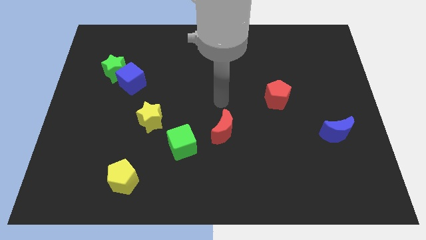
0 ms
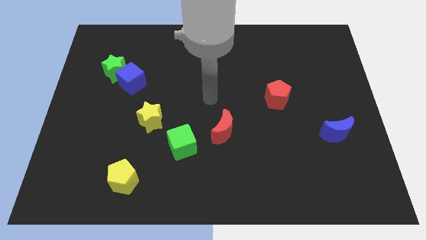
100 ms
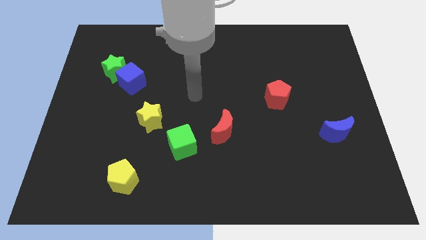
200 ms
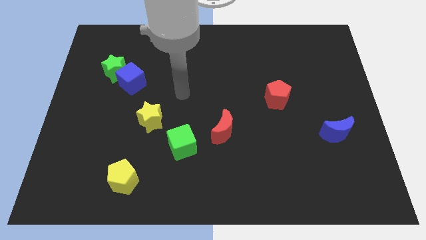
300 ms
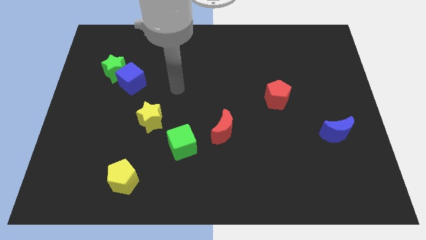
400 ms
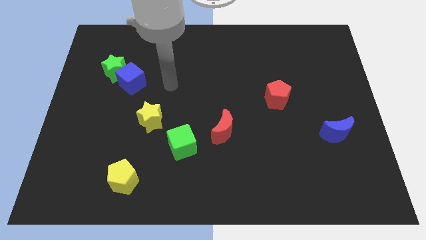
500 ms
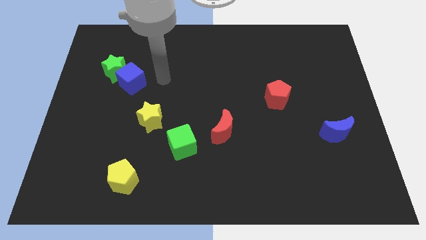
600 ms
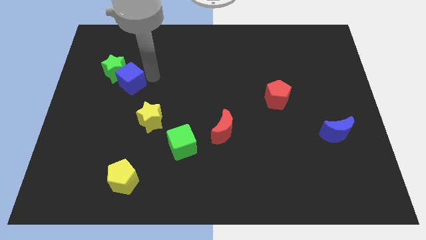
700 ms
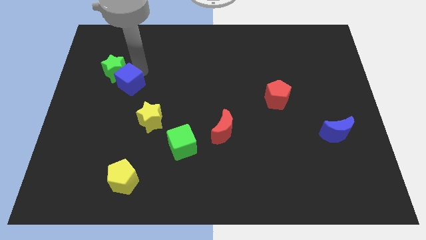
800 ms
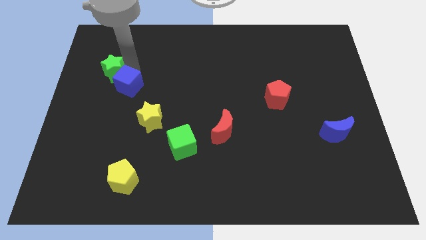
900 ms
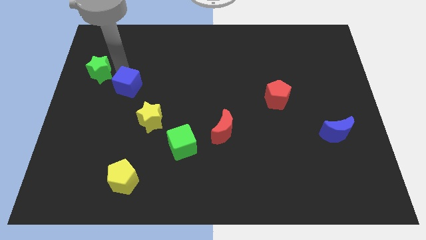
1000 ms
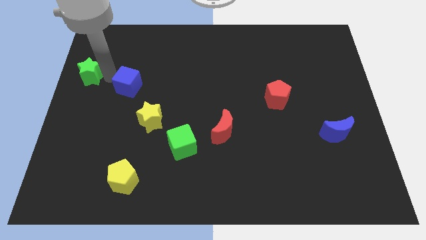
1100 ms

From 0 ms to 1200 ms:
separate the blue cube from the green star

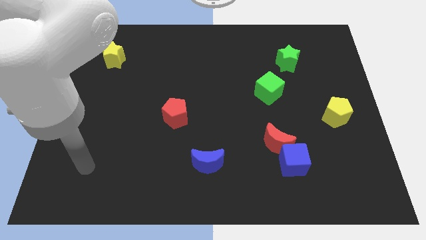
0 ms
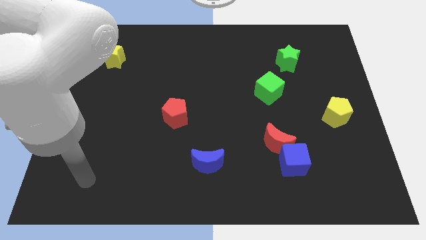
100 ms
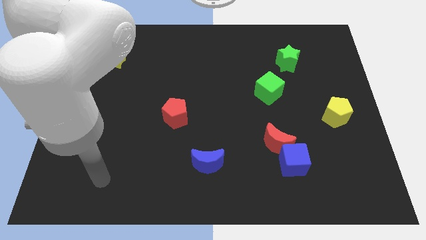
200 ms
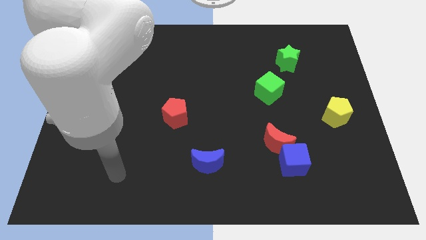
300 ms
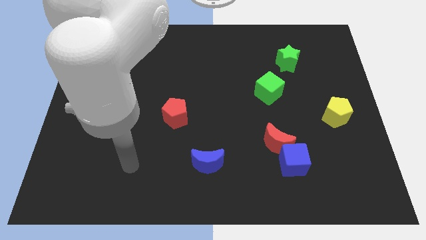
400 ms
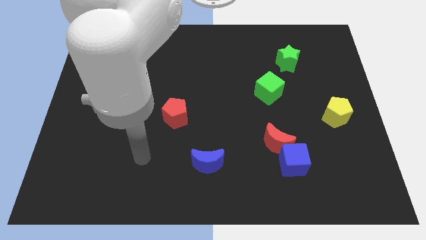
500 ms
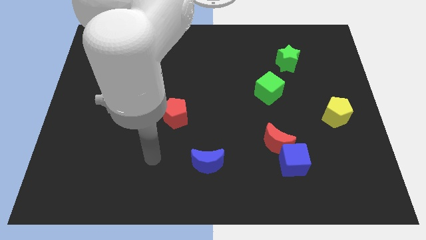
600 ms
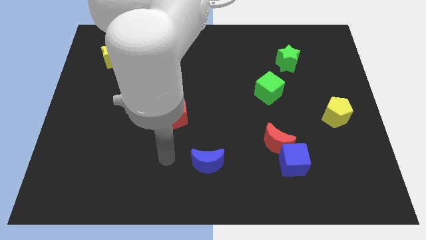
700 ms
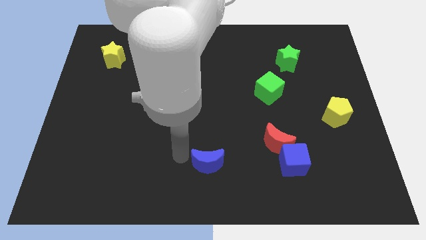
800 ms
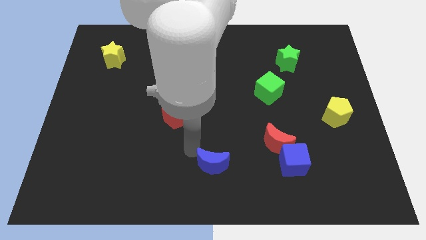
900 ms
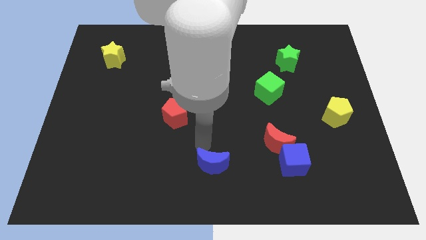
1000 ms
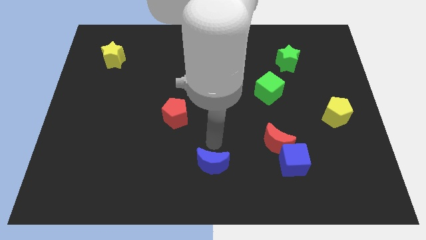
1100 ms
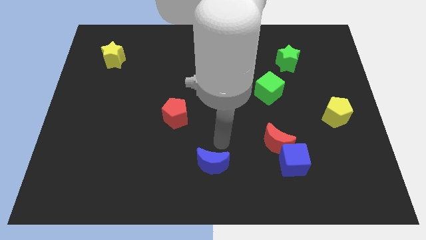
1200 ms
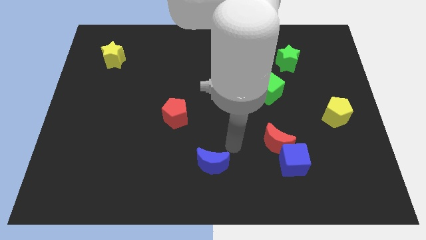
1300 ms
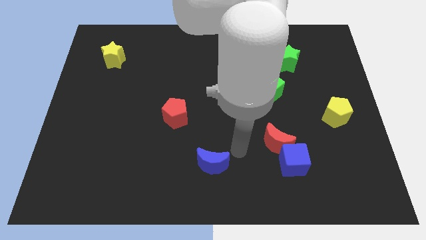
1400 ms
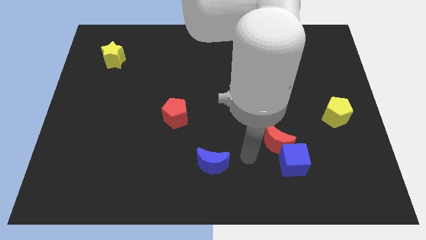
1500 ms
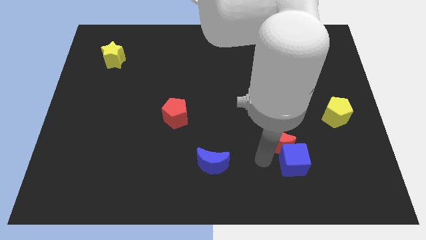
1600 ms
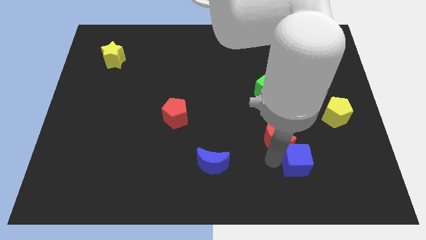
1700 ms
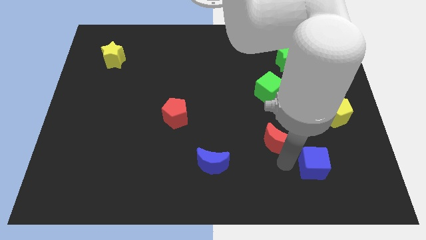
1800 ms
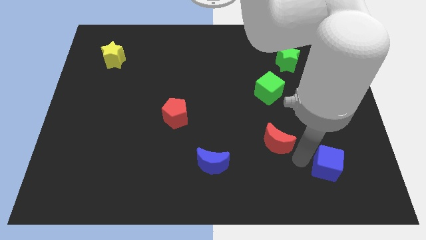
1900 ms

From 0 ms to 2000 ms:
separate the red moon from the blue cube

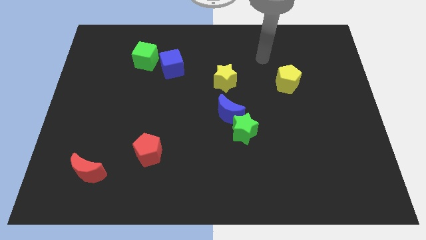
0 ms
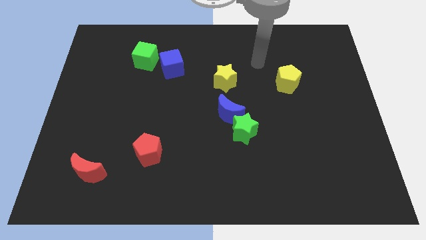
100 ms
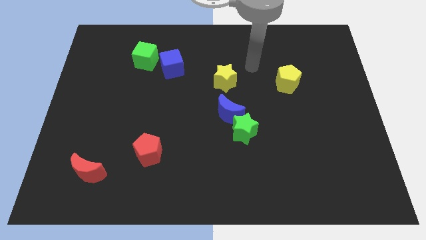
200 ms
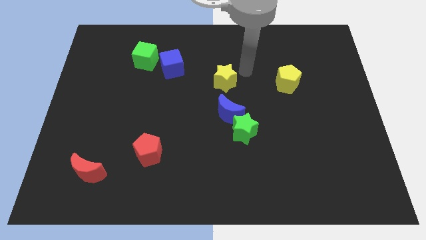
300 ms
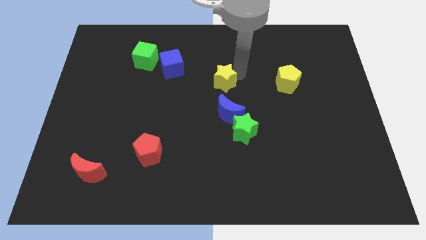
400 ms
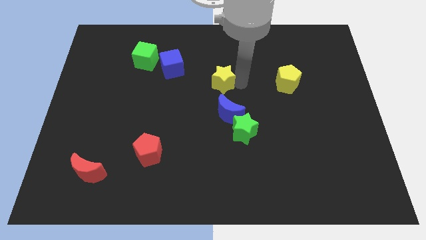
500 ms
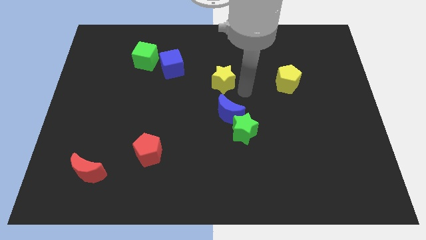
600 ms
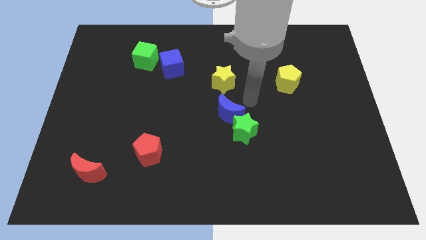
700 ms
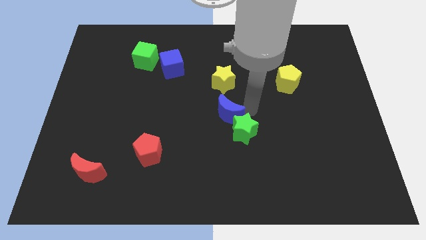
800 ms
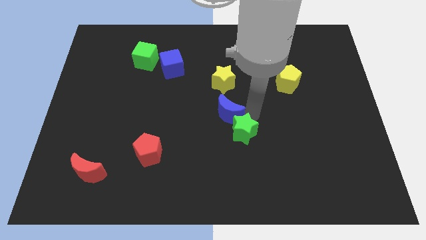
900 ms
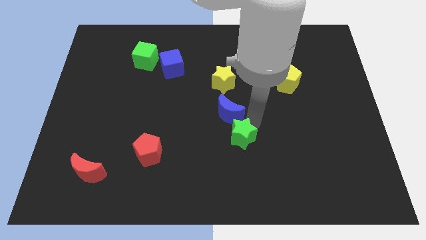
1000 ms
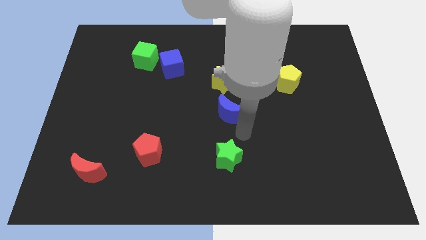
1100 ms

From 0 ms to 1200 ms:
separate the blue moon from the green star

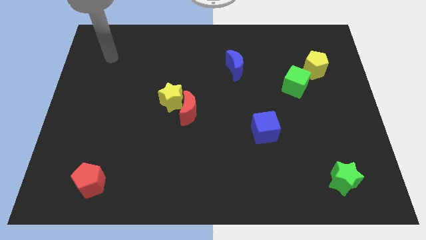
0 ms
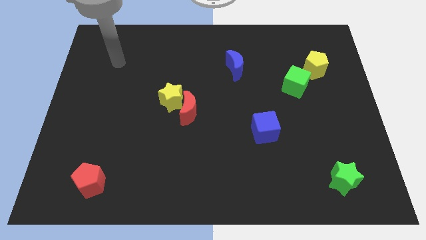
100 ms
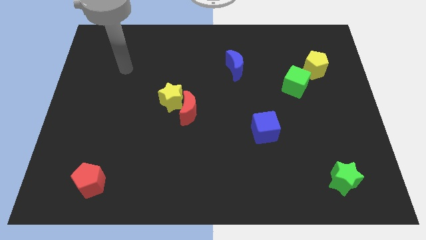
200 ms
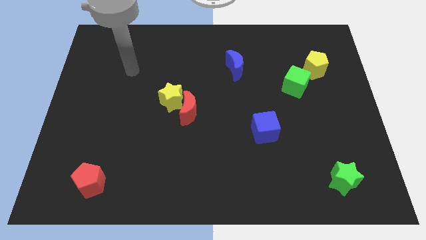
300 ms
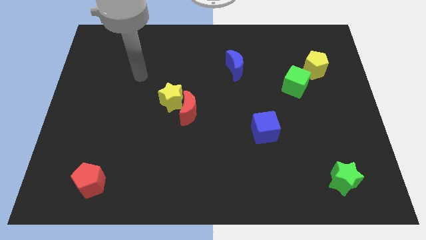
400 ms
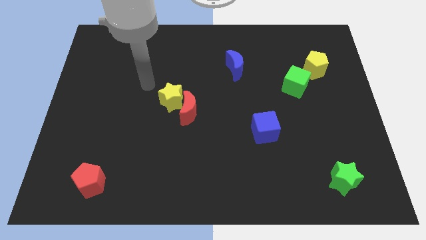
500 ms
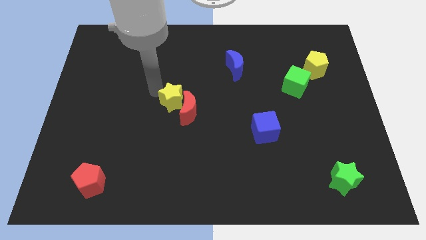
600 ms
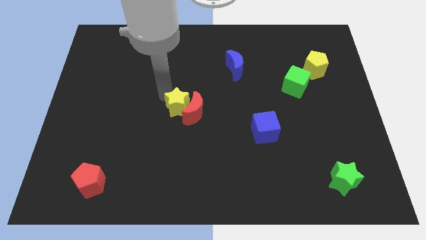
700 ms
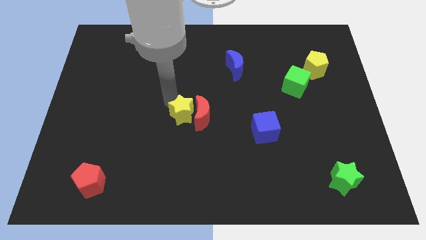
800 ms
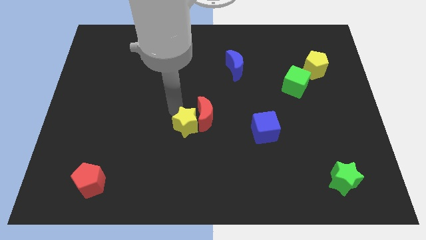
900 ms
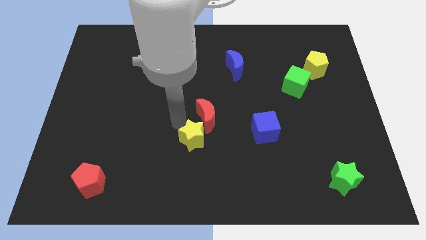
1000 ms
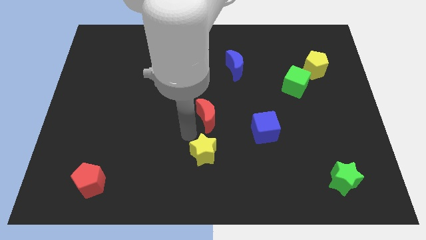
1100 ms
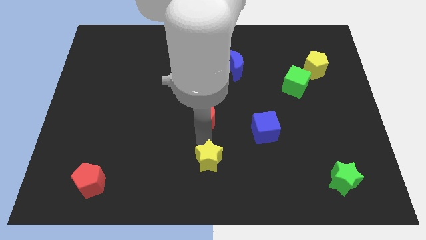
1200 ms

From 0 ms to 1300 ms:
separate the red moon from the yellow star

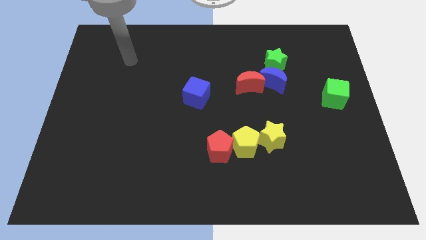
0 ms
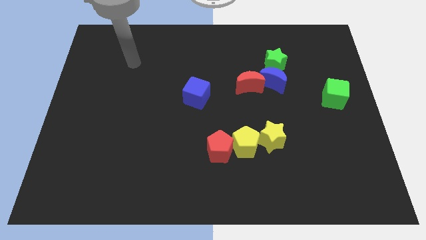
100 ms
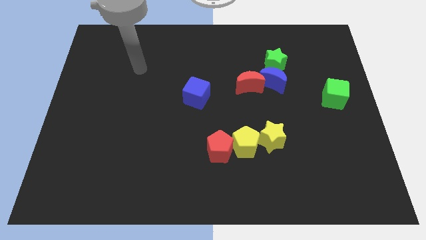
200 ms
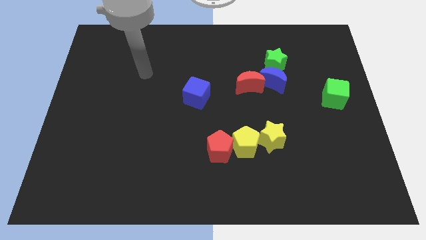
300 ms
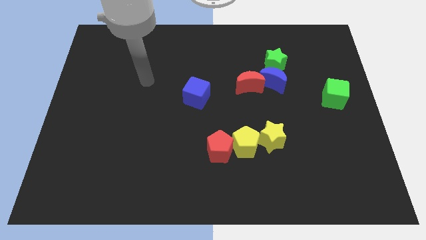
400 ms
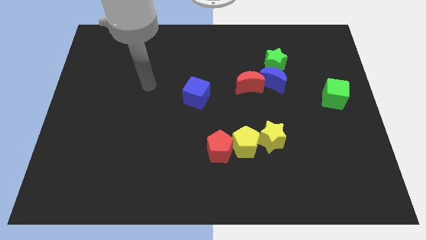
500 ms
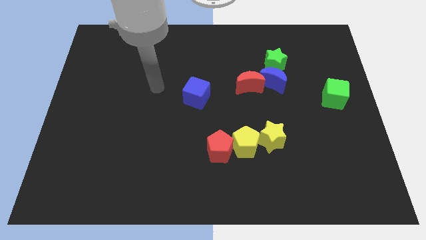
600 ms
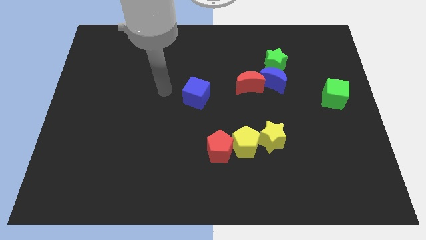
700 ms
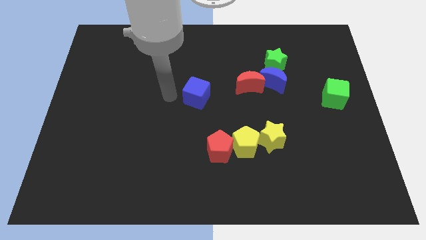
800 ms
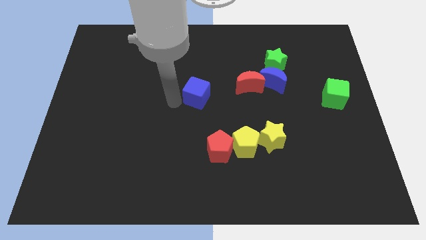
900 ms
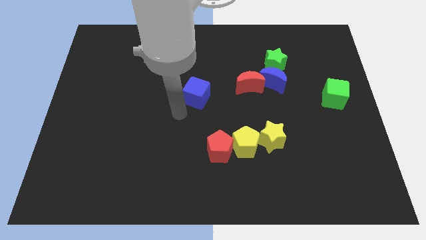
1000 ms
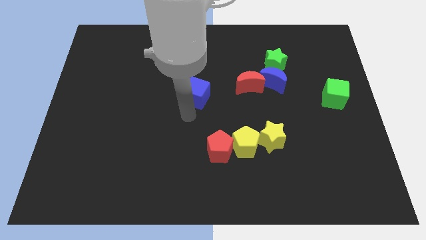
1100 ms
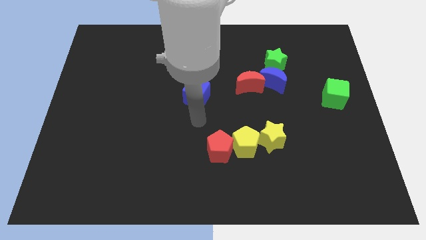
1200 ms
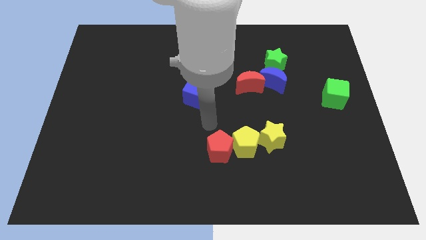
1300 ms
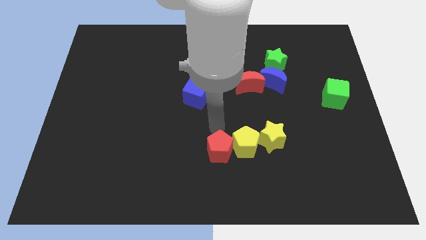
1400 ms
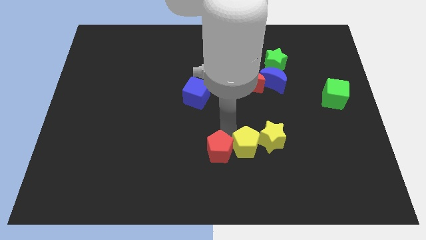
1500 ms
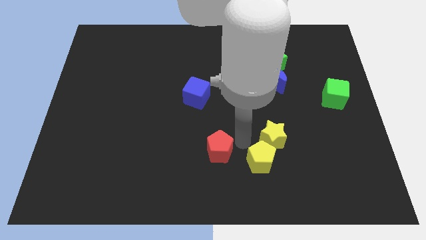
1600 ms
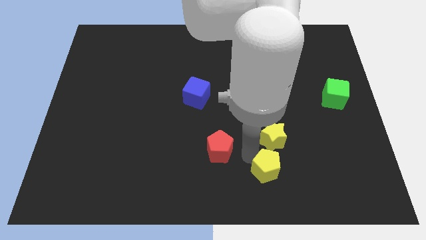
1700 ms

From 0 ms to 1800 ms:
pull the red pentagon apart from the yellow pentagon

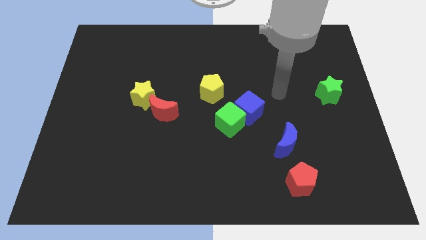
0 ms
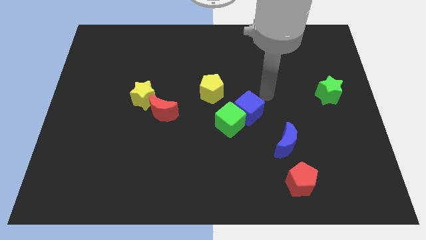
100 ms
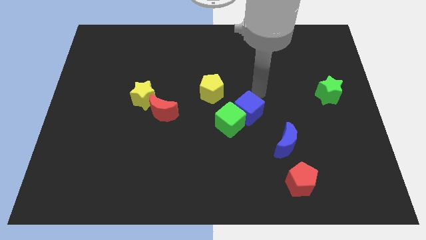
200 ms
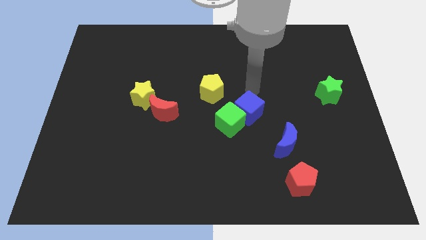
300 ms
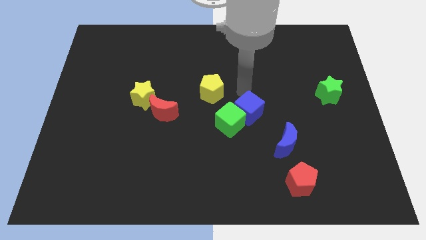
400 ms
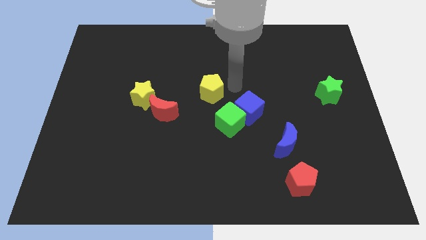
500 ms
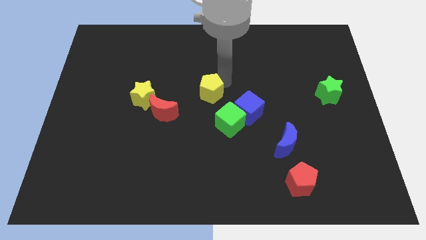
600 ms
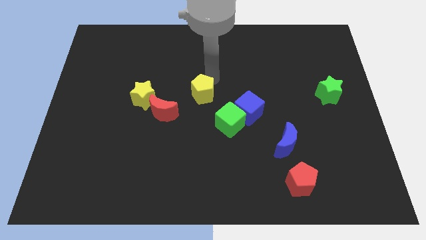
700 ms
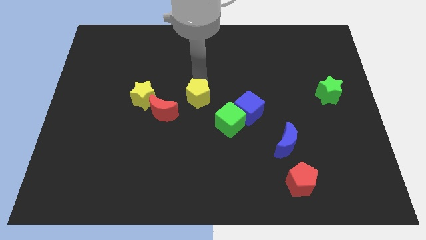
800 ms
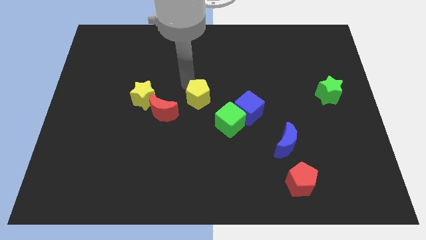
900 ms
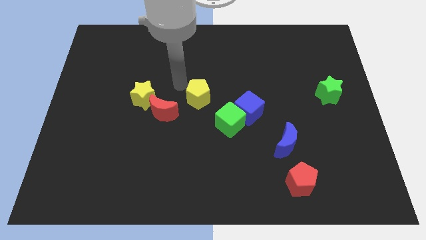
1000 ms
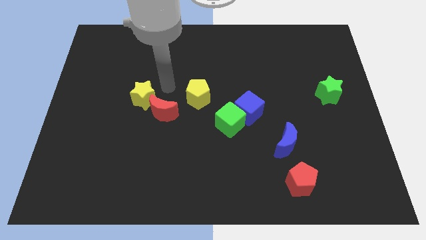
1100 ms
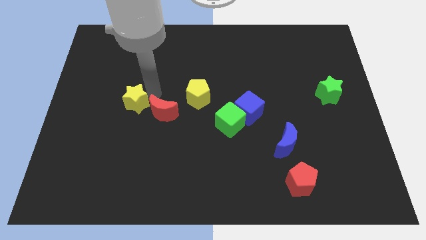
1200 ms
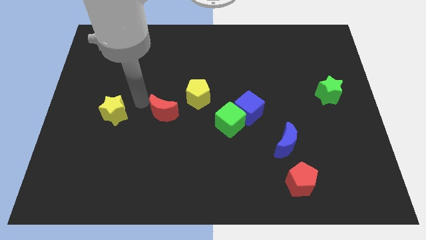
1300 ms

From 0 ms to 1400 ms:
move the red moon away from the yellow star

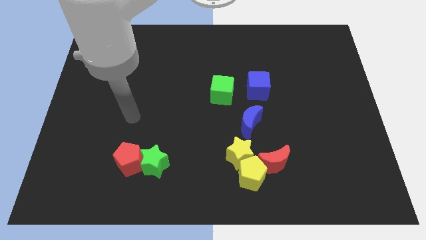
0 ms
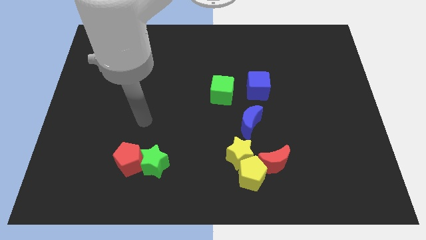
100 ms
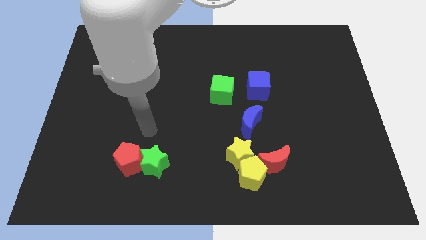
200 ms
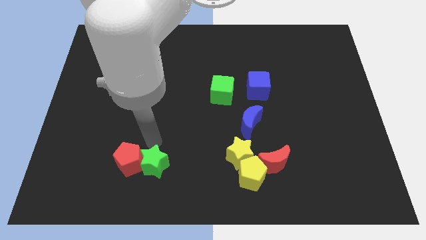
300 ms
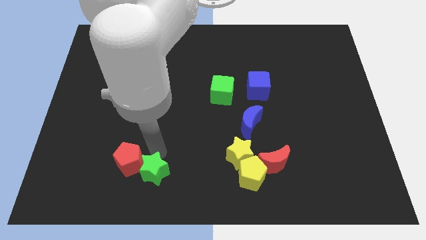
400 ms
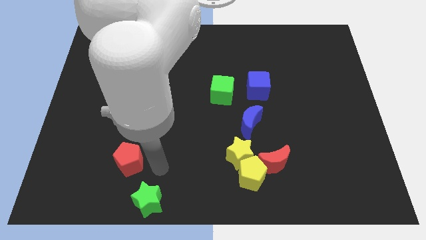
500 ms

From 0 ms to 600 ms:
separate the red pentagon from the green star
